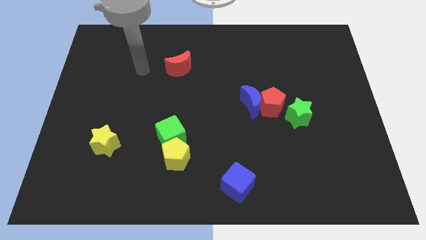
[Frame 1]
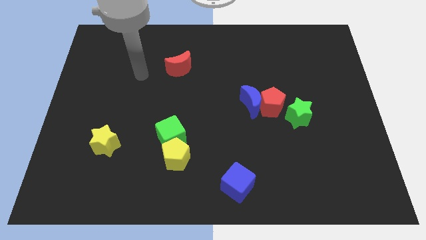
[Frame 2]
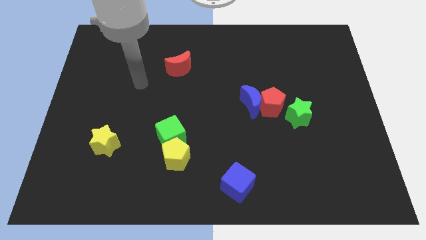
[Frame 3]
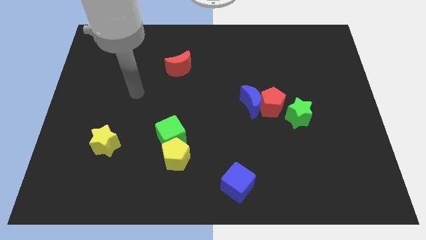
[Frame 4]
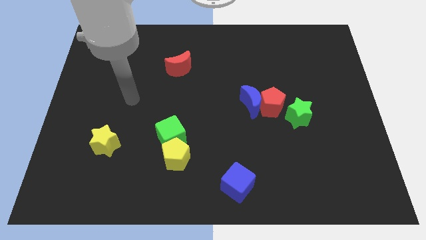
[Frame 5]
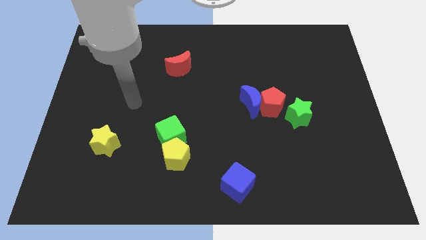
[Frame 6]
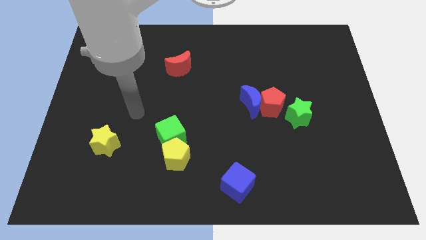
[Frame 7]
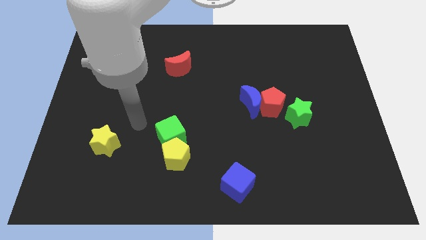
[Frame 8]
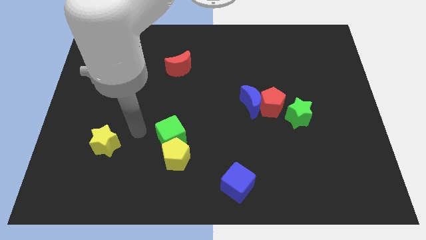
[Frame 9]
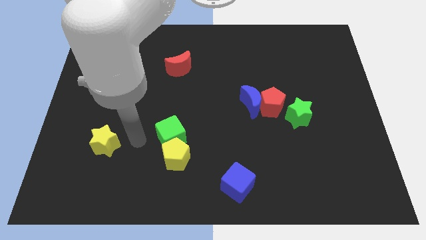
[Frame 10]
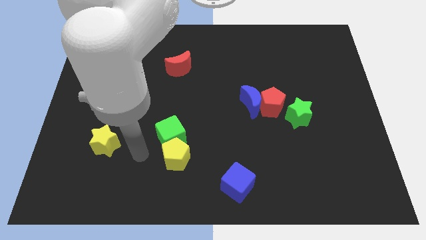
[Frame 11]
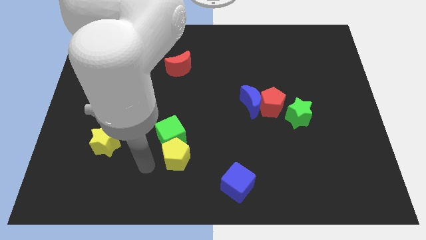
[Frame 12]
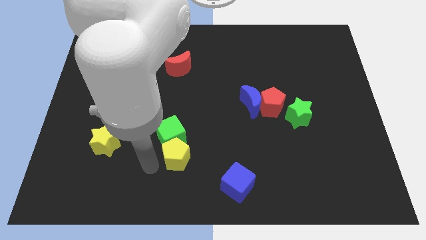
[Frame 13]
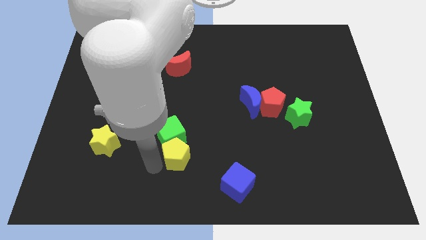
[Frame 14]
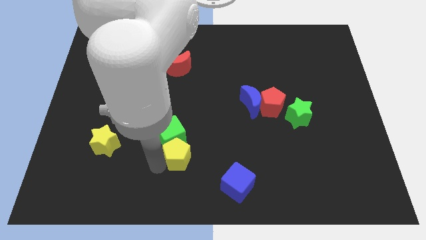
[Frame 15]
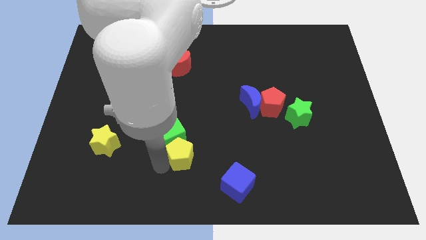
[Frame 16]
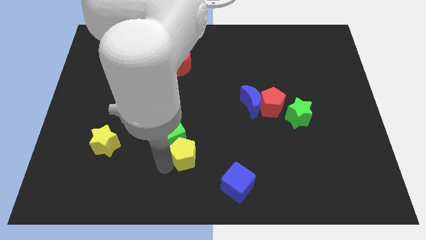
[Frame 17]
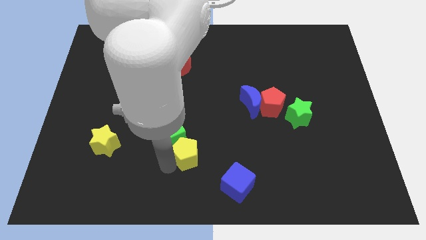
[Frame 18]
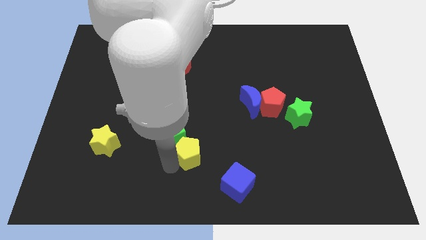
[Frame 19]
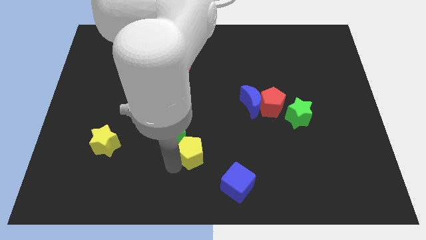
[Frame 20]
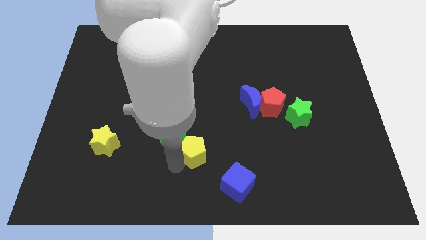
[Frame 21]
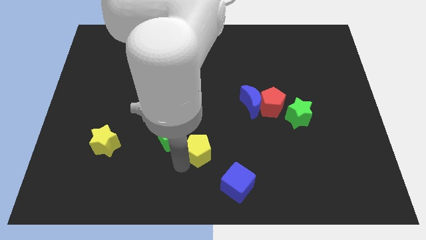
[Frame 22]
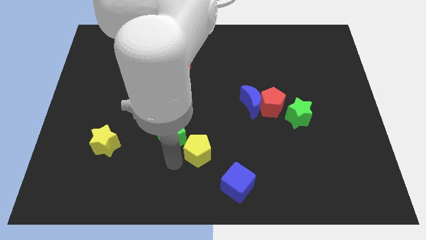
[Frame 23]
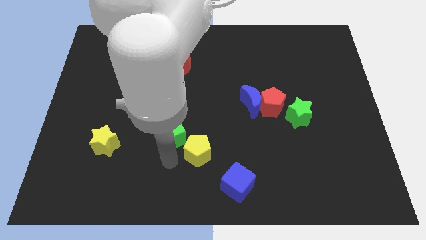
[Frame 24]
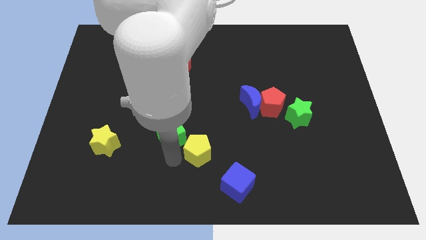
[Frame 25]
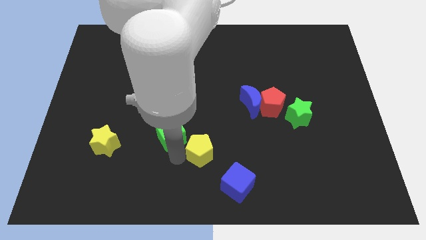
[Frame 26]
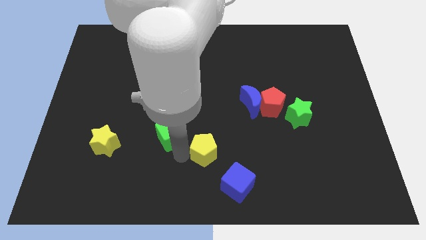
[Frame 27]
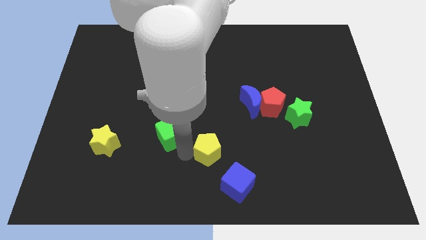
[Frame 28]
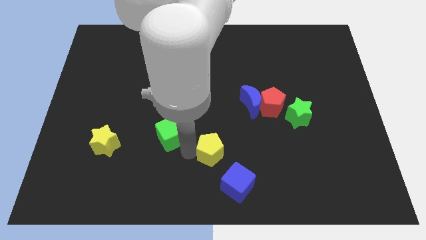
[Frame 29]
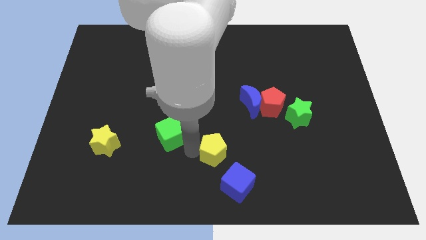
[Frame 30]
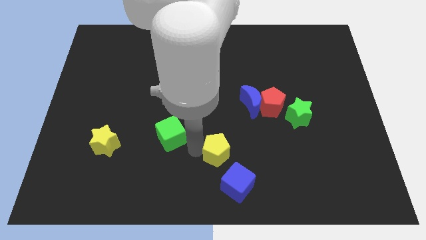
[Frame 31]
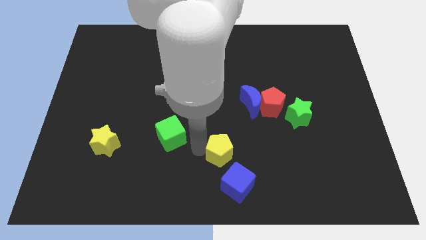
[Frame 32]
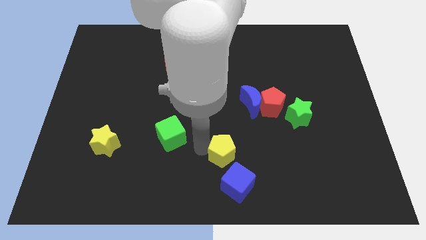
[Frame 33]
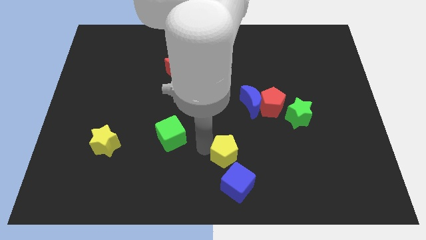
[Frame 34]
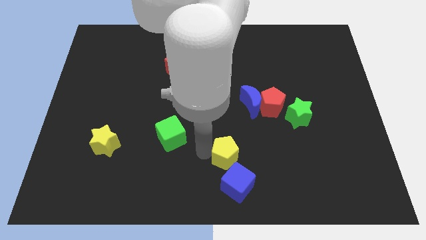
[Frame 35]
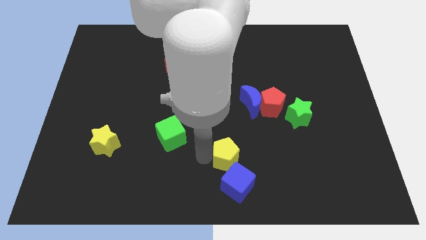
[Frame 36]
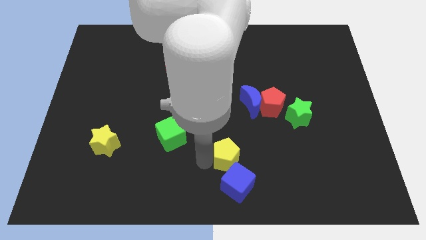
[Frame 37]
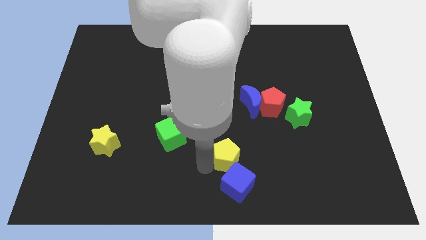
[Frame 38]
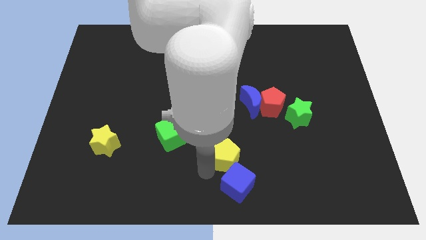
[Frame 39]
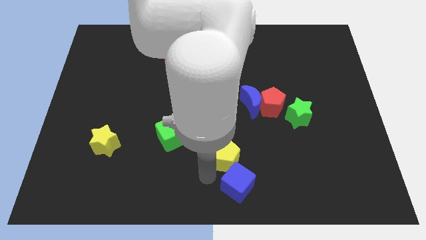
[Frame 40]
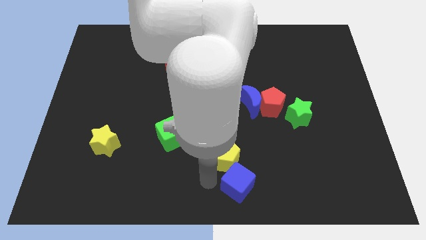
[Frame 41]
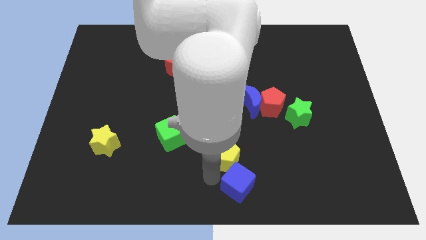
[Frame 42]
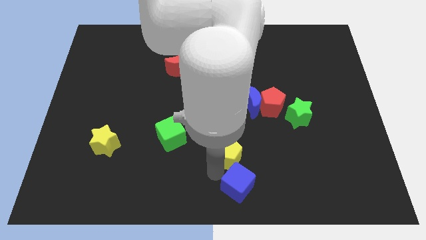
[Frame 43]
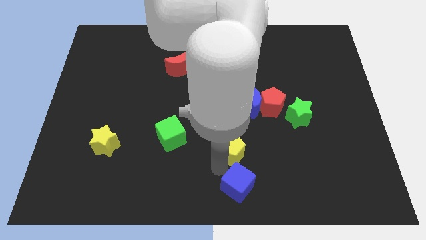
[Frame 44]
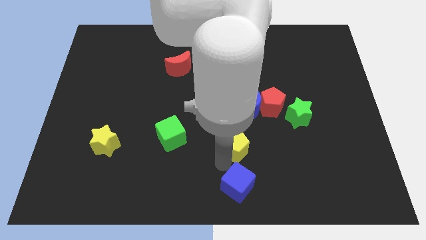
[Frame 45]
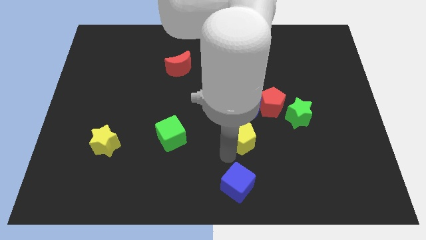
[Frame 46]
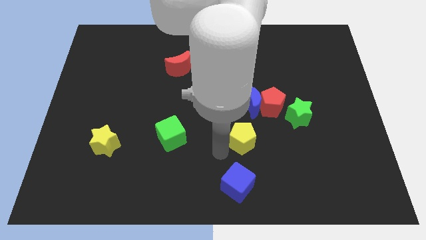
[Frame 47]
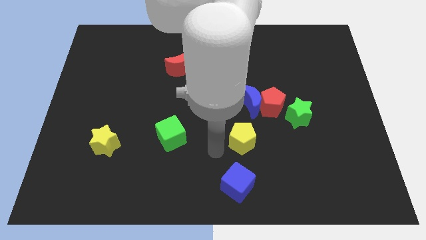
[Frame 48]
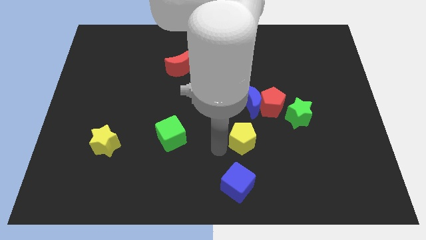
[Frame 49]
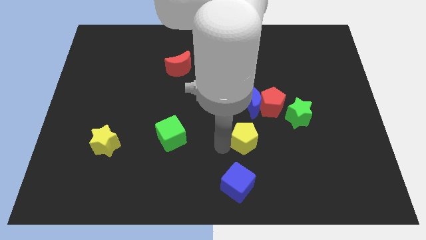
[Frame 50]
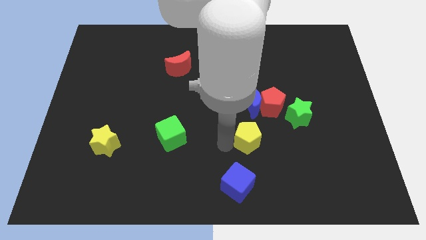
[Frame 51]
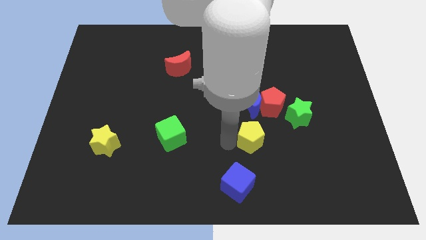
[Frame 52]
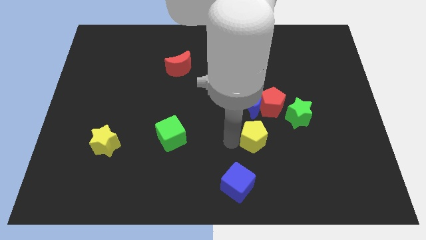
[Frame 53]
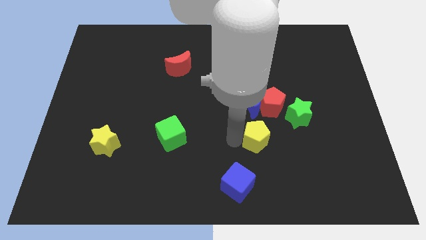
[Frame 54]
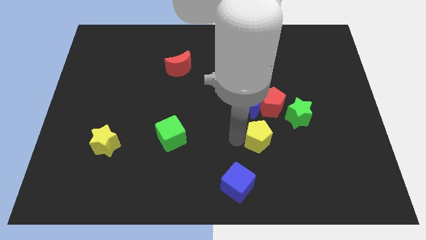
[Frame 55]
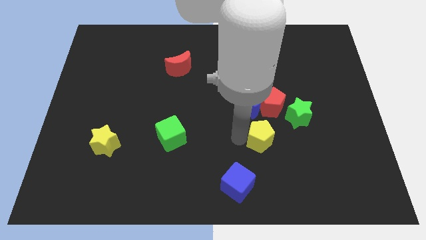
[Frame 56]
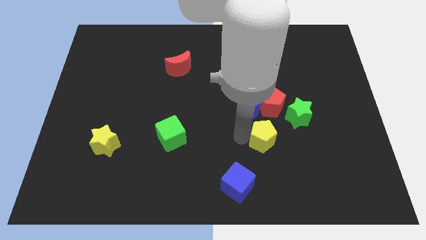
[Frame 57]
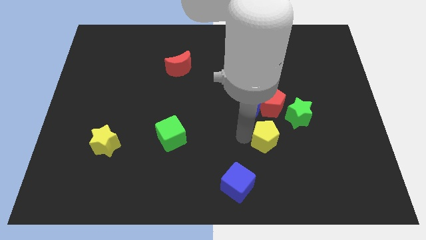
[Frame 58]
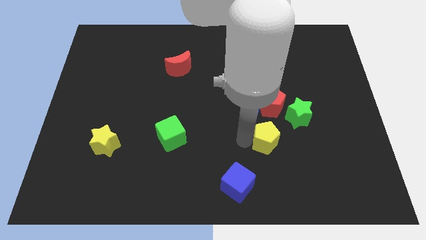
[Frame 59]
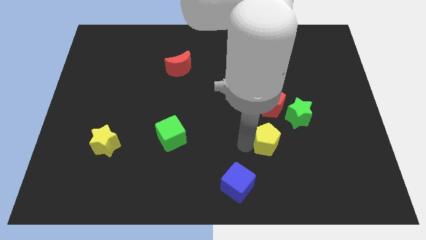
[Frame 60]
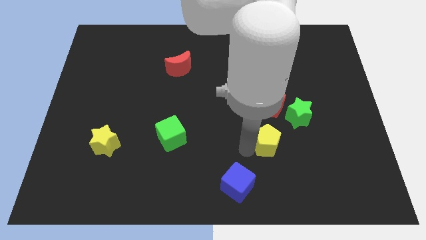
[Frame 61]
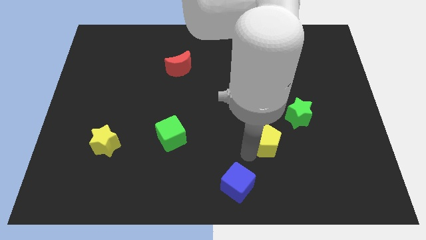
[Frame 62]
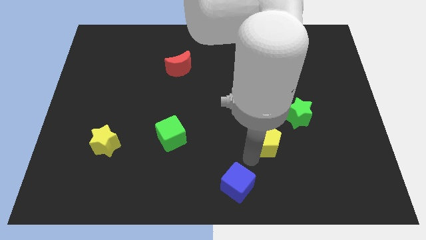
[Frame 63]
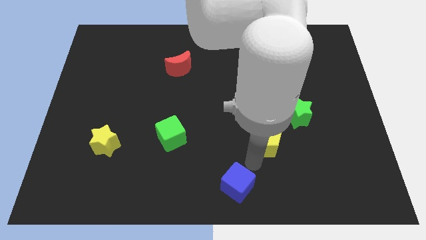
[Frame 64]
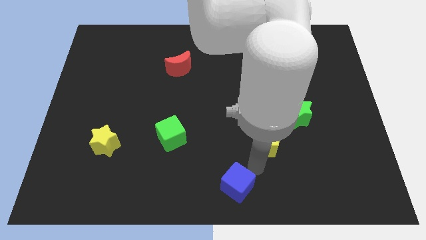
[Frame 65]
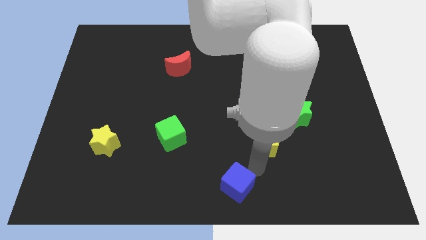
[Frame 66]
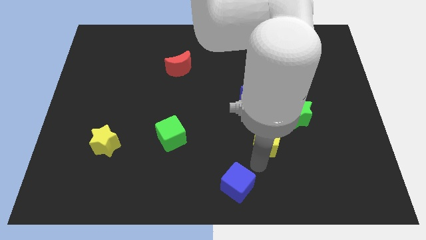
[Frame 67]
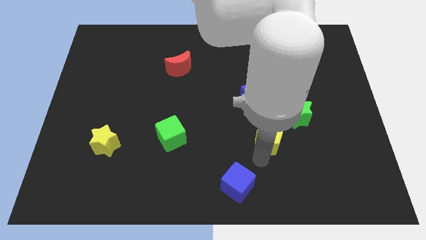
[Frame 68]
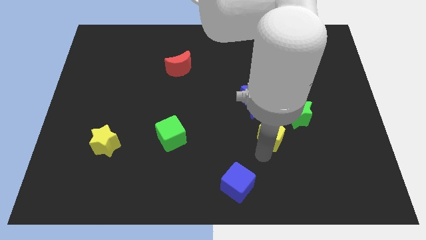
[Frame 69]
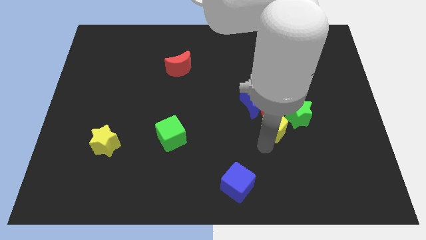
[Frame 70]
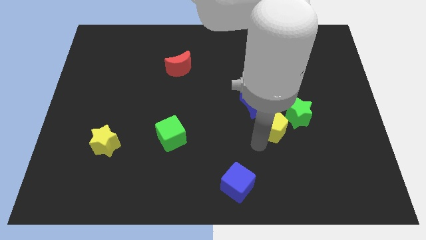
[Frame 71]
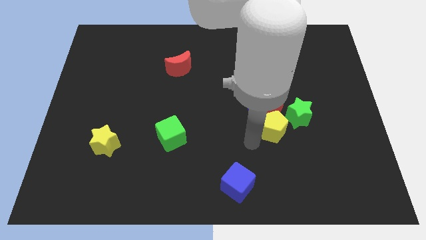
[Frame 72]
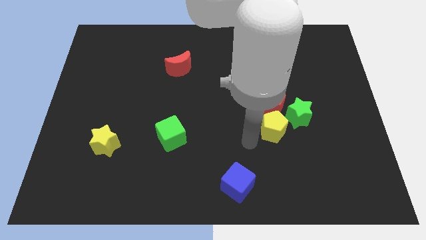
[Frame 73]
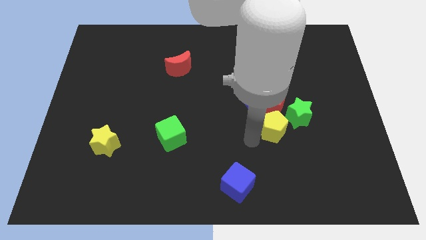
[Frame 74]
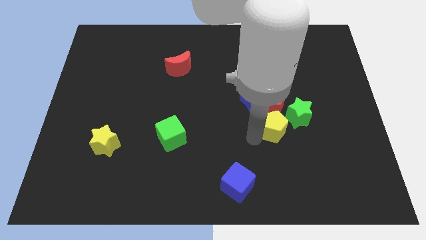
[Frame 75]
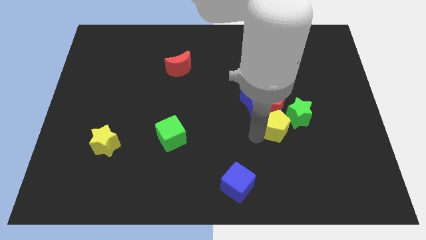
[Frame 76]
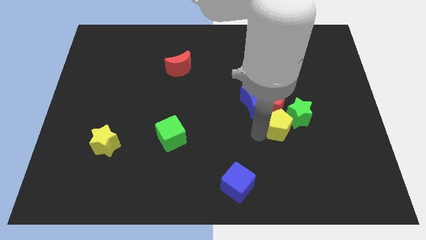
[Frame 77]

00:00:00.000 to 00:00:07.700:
slide the yellow pentagon next to the green star

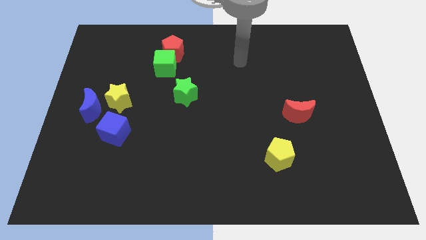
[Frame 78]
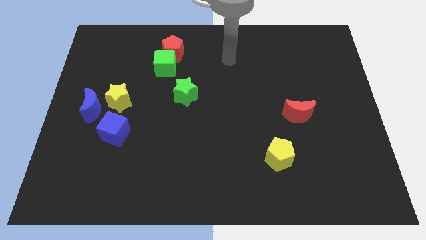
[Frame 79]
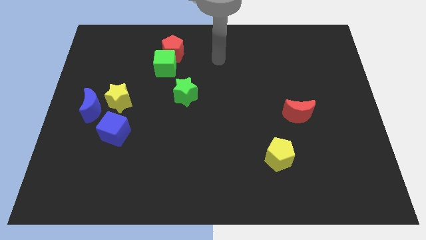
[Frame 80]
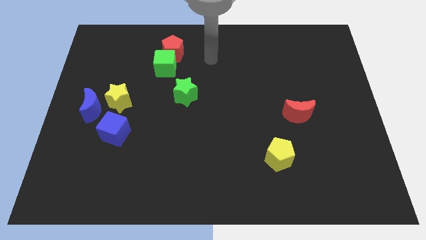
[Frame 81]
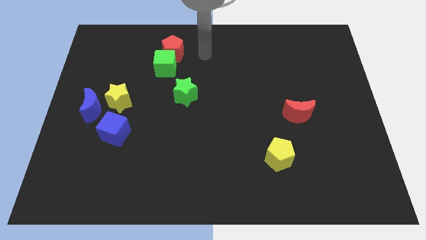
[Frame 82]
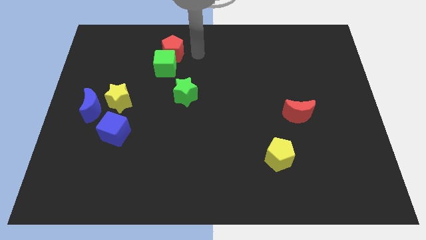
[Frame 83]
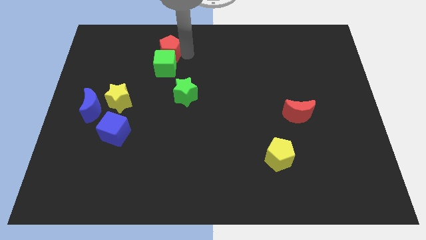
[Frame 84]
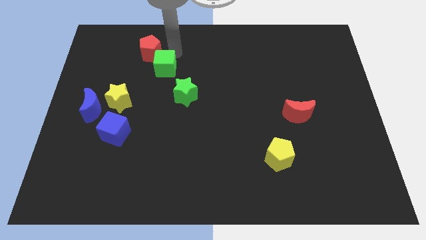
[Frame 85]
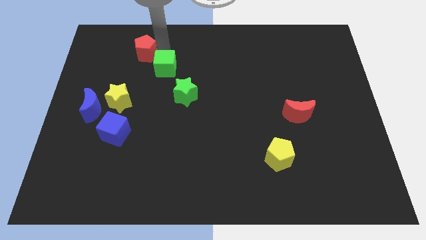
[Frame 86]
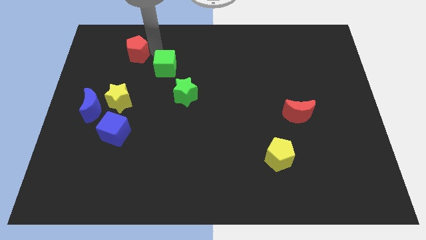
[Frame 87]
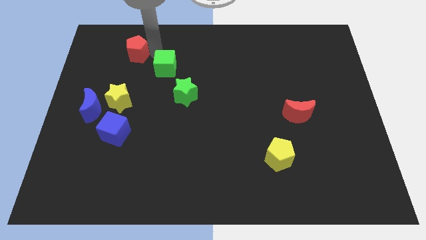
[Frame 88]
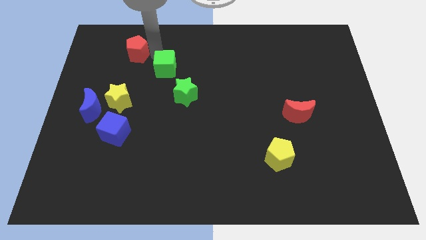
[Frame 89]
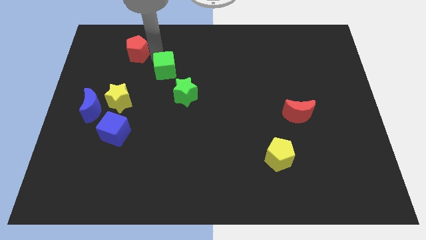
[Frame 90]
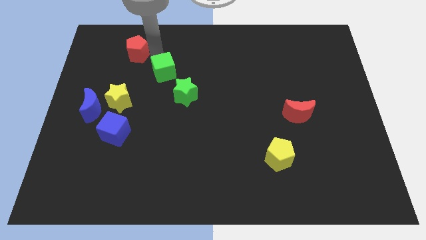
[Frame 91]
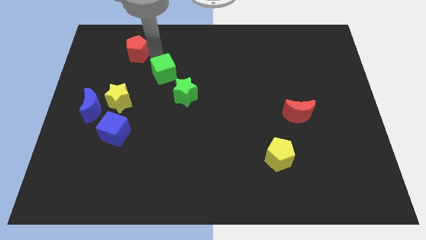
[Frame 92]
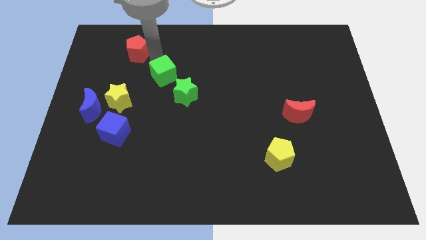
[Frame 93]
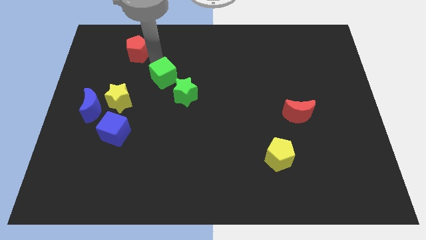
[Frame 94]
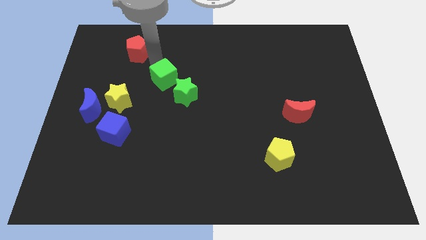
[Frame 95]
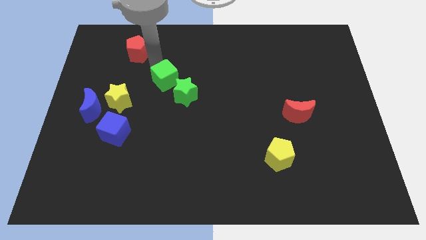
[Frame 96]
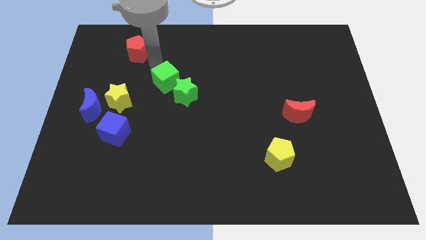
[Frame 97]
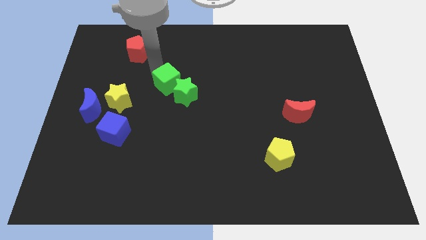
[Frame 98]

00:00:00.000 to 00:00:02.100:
put the green cube towards the green star
